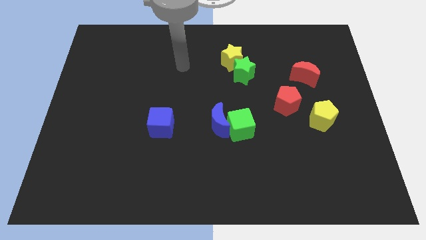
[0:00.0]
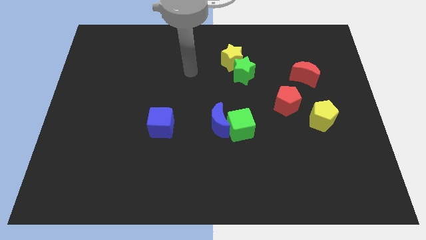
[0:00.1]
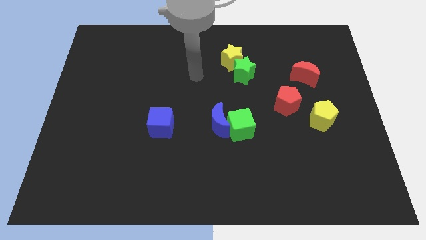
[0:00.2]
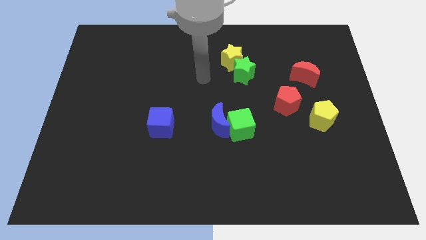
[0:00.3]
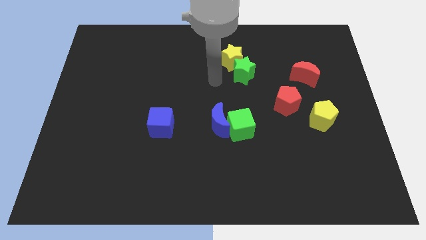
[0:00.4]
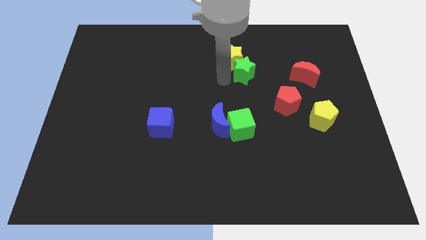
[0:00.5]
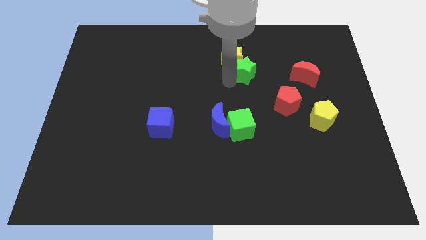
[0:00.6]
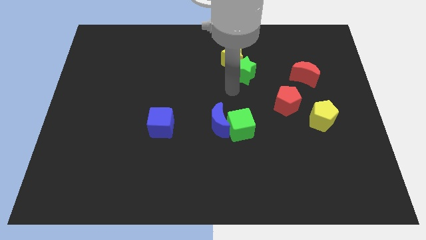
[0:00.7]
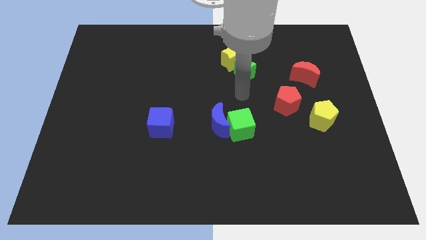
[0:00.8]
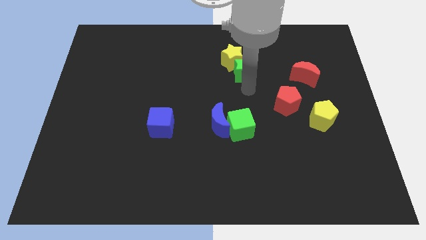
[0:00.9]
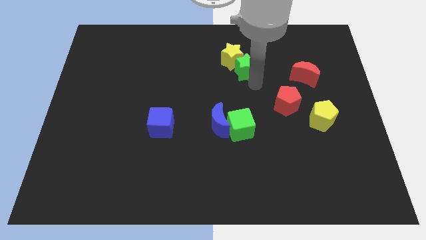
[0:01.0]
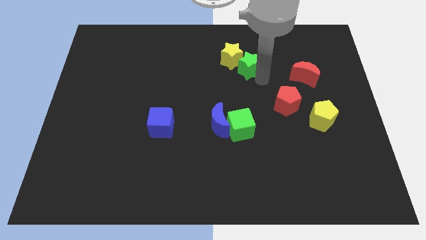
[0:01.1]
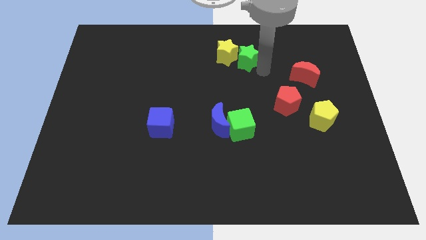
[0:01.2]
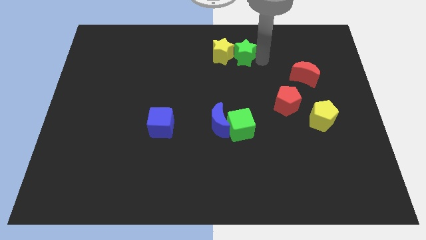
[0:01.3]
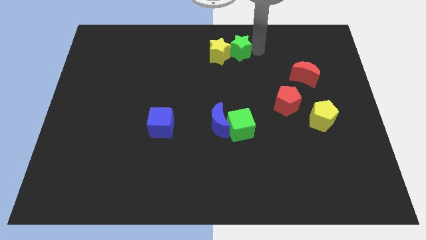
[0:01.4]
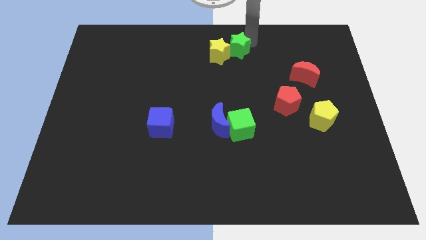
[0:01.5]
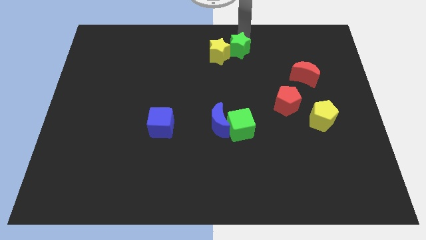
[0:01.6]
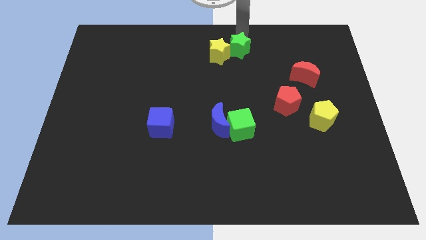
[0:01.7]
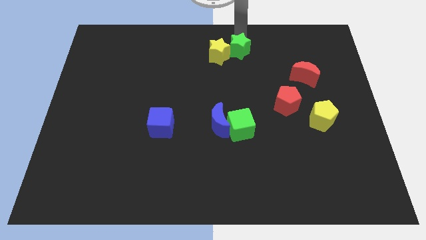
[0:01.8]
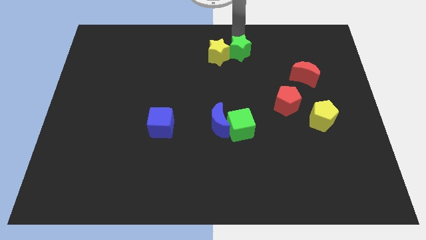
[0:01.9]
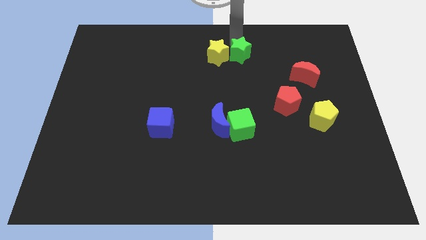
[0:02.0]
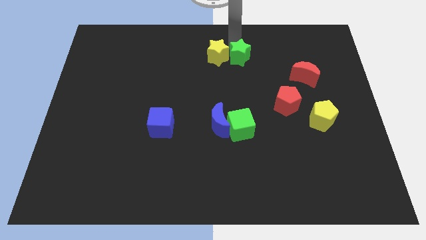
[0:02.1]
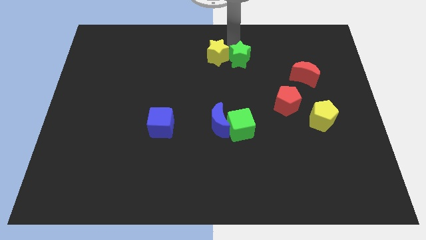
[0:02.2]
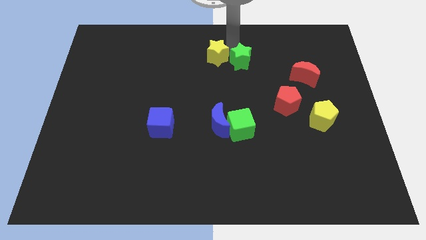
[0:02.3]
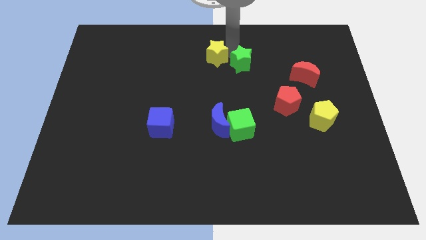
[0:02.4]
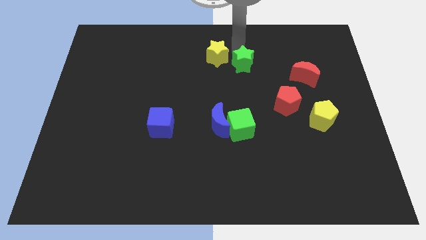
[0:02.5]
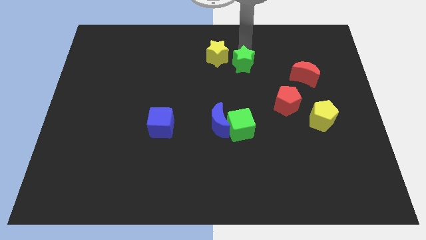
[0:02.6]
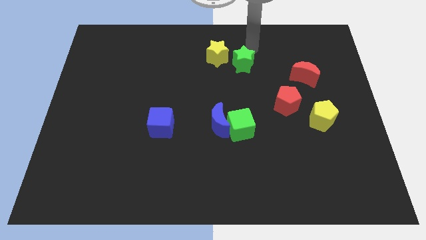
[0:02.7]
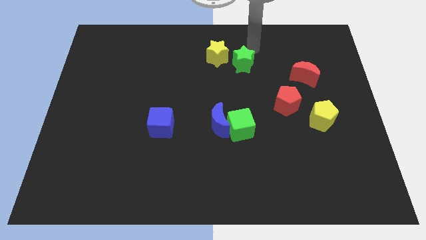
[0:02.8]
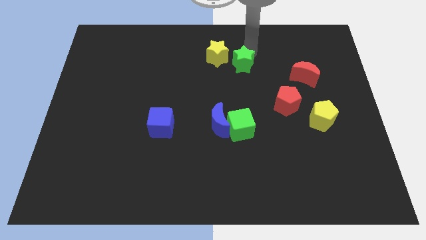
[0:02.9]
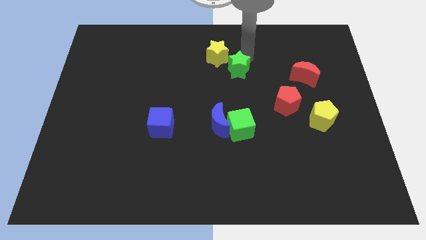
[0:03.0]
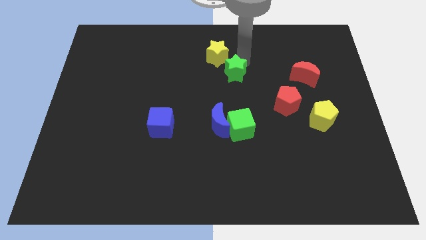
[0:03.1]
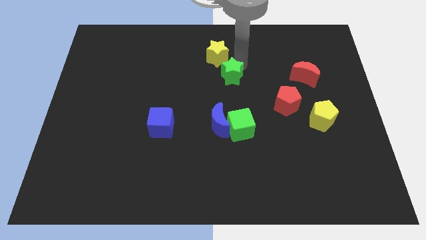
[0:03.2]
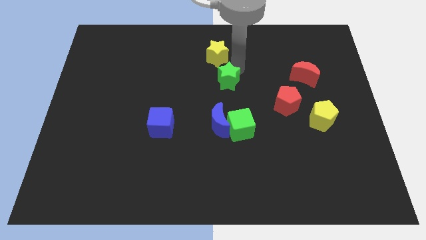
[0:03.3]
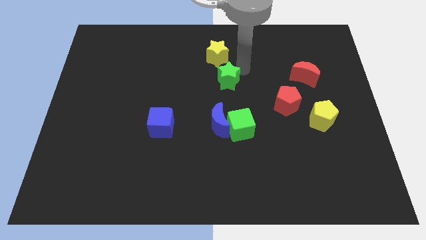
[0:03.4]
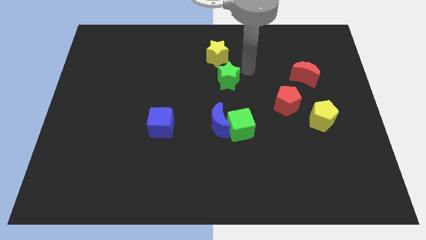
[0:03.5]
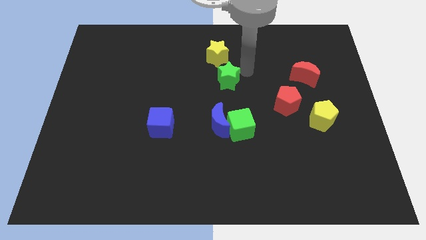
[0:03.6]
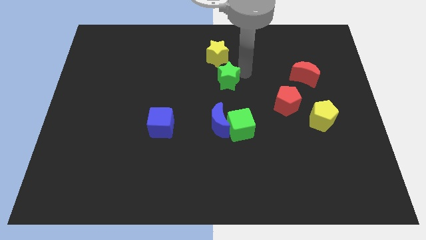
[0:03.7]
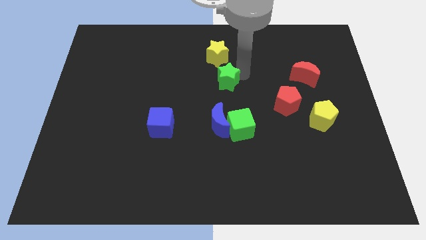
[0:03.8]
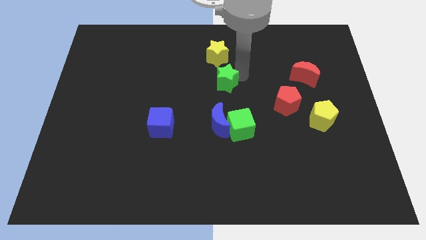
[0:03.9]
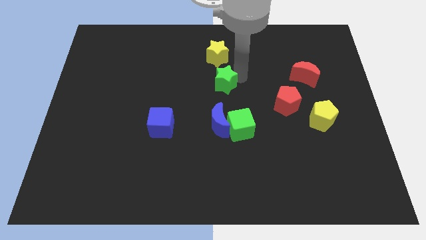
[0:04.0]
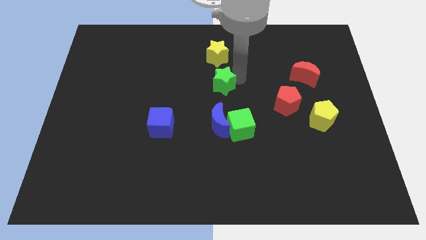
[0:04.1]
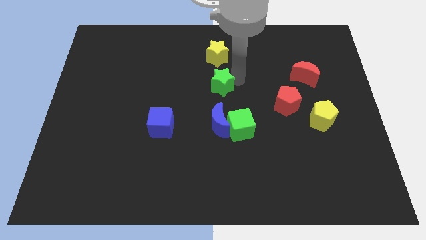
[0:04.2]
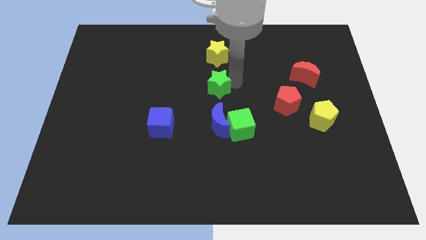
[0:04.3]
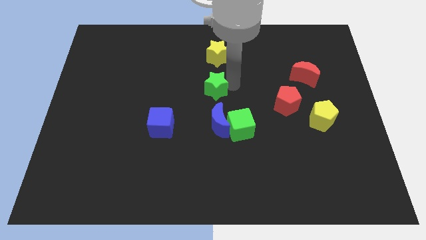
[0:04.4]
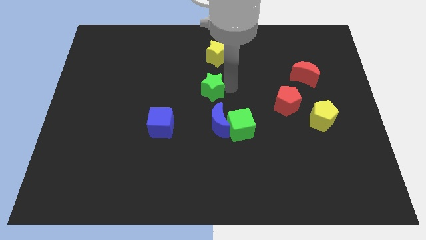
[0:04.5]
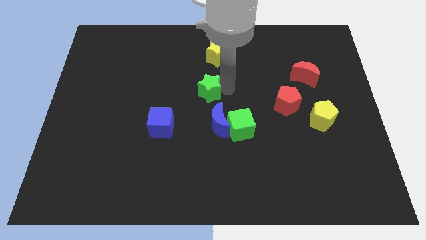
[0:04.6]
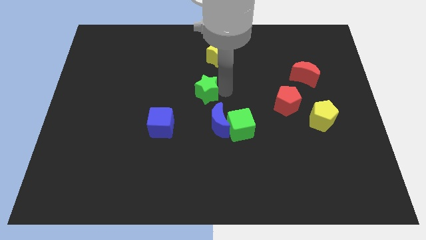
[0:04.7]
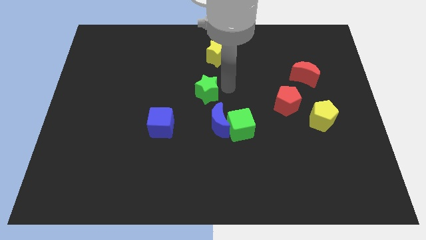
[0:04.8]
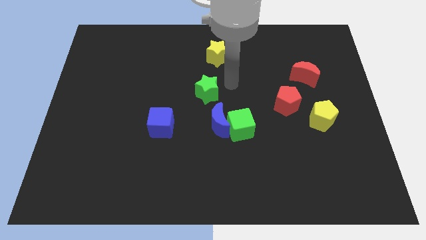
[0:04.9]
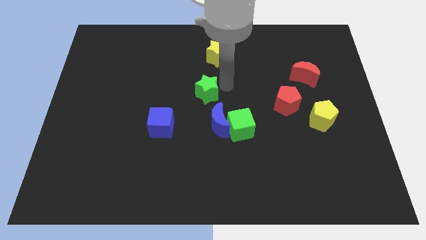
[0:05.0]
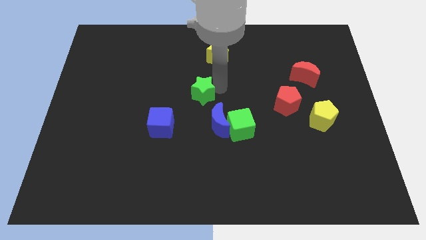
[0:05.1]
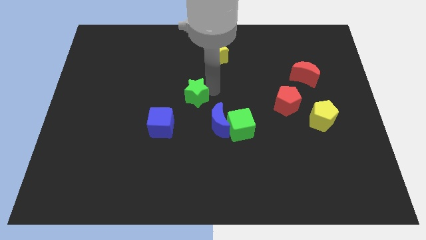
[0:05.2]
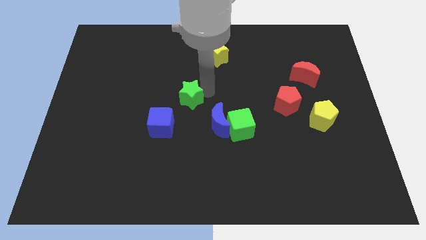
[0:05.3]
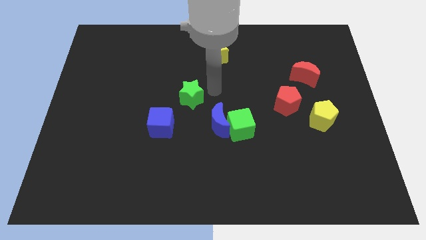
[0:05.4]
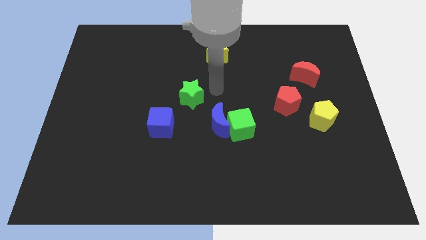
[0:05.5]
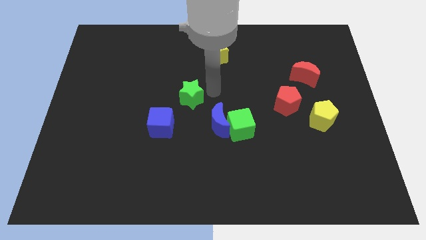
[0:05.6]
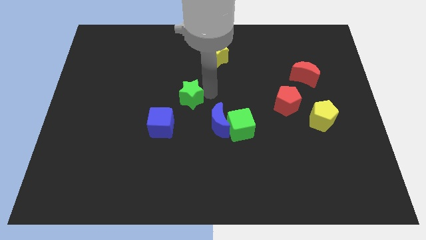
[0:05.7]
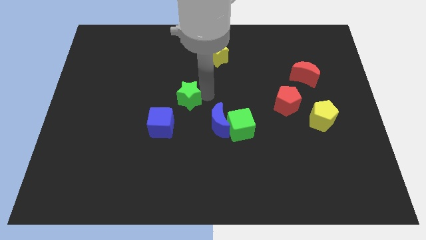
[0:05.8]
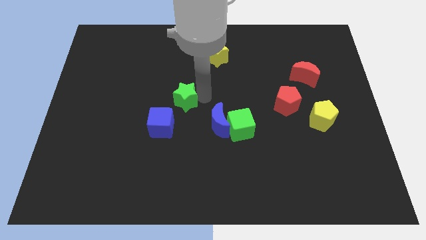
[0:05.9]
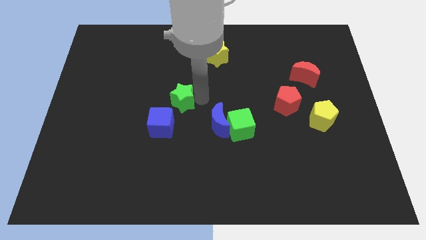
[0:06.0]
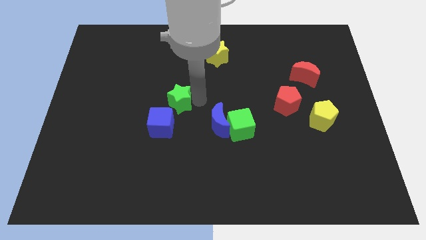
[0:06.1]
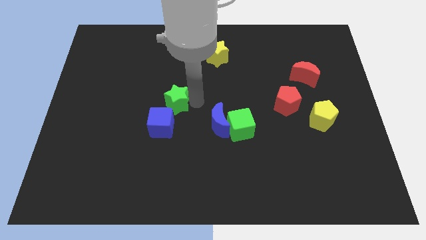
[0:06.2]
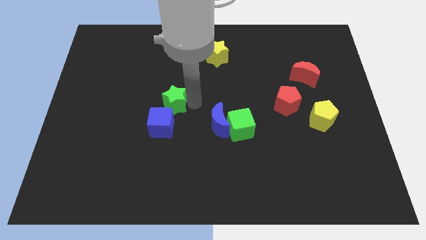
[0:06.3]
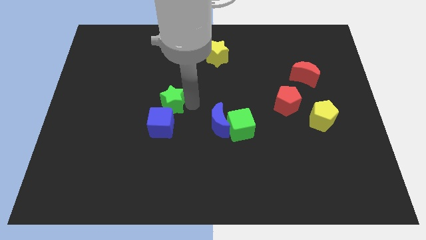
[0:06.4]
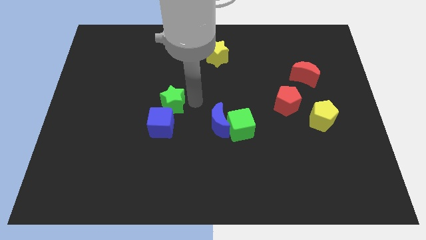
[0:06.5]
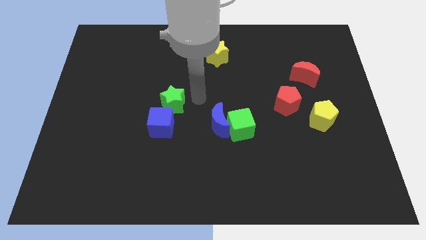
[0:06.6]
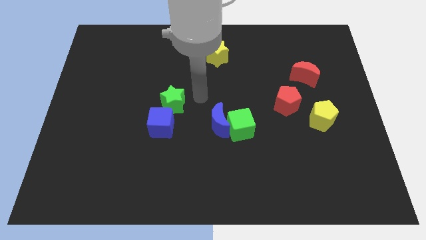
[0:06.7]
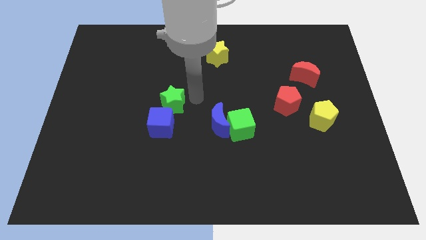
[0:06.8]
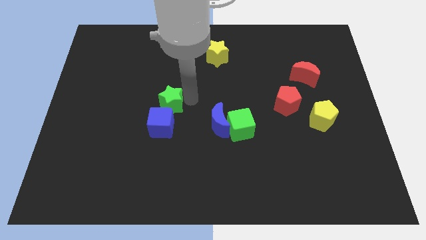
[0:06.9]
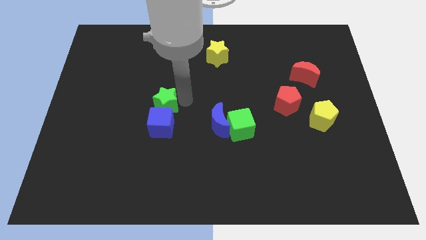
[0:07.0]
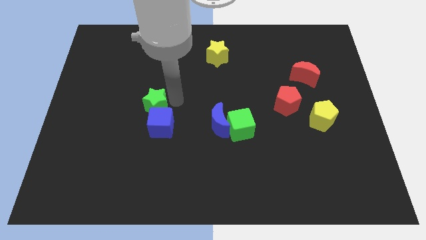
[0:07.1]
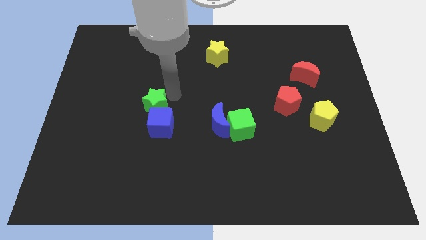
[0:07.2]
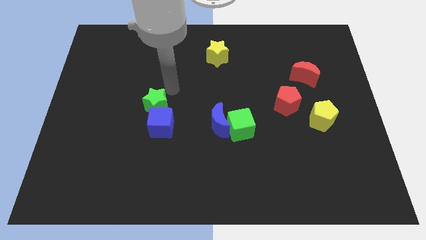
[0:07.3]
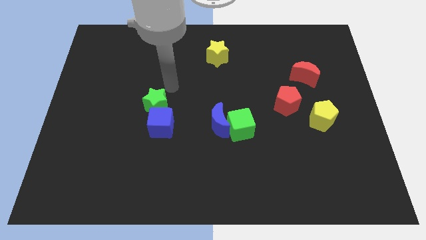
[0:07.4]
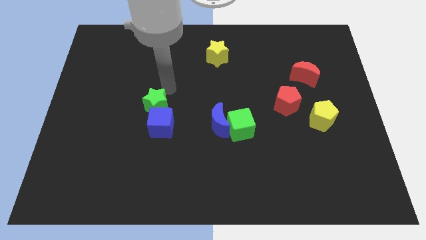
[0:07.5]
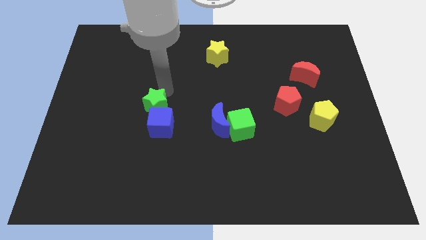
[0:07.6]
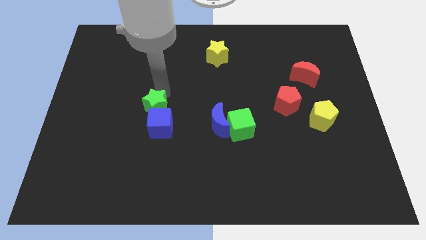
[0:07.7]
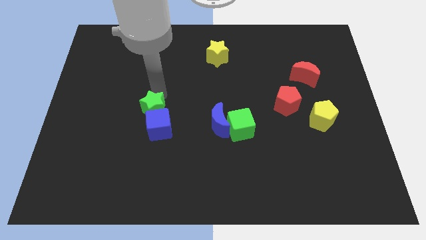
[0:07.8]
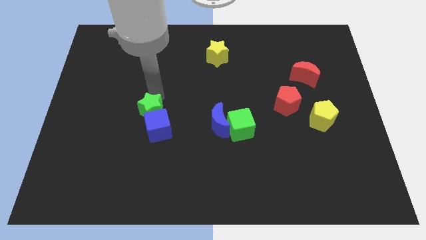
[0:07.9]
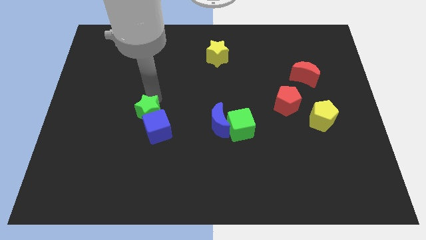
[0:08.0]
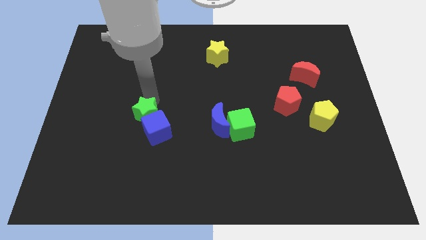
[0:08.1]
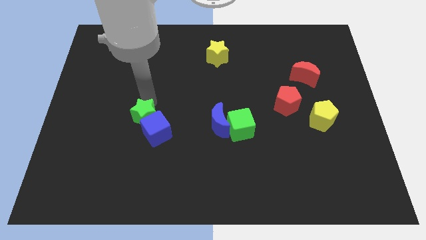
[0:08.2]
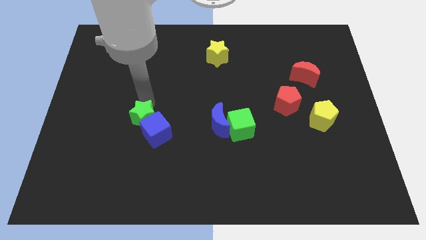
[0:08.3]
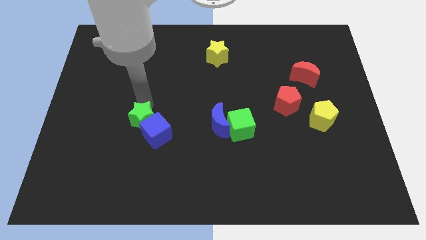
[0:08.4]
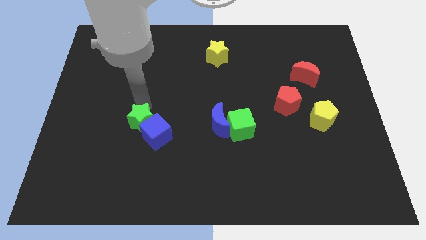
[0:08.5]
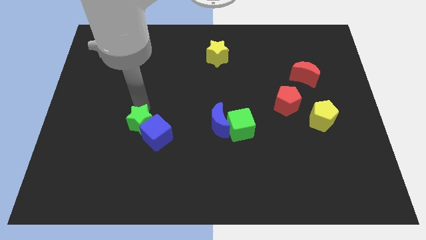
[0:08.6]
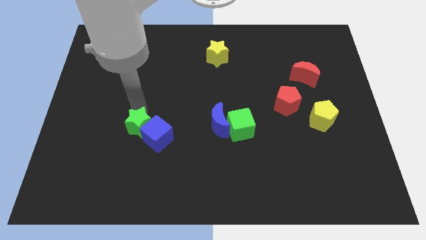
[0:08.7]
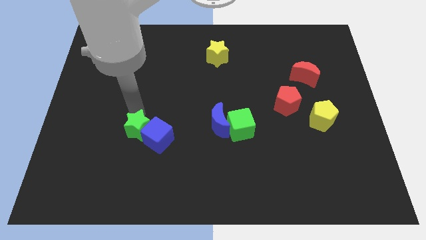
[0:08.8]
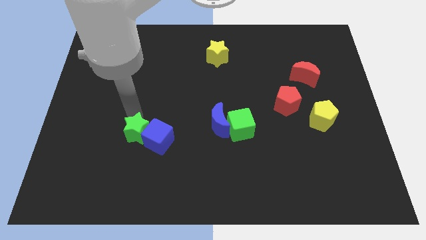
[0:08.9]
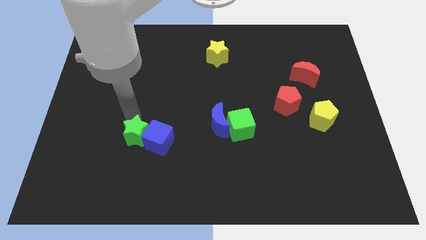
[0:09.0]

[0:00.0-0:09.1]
push the green star to the bottom left of the blue cube
